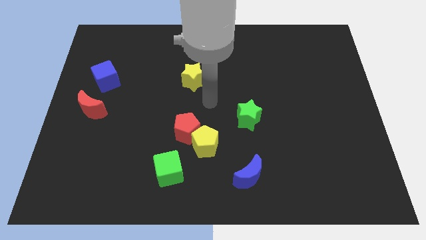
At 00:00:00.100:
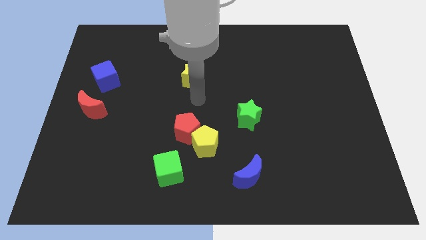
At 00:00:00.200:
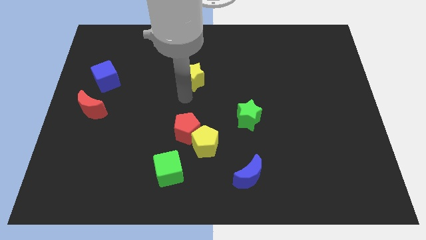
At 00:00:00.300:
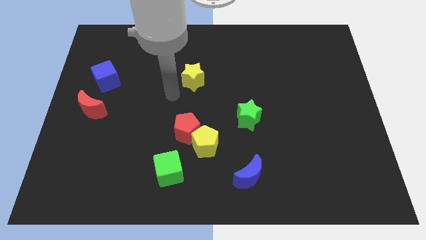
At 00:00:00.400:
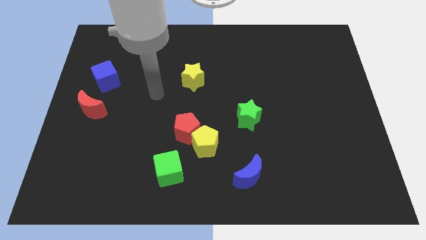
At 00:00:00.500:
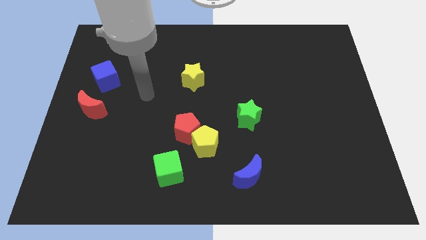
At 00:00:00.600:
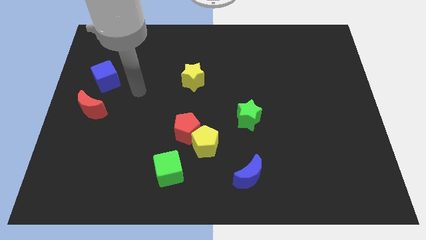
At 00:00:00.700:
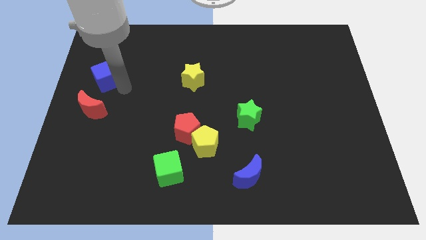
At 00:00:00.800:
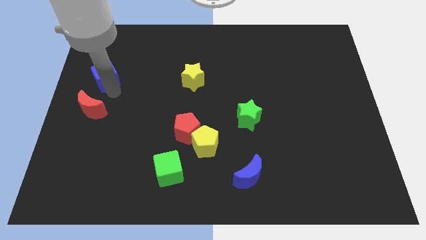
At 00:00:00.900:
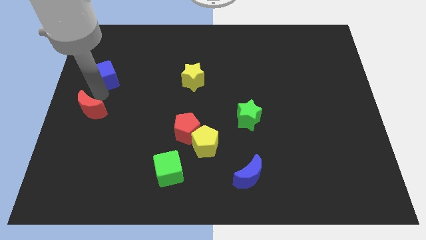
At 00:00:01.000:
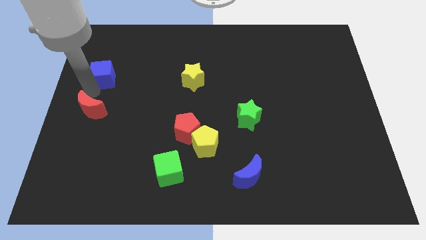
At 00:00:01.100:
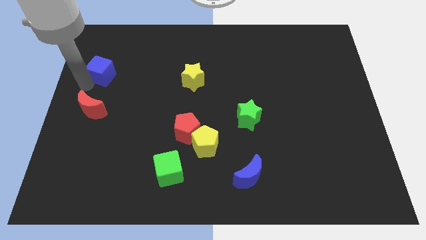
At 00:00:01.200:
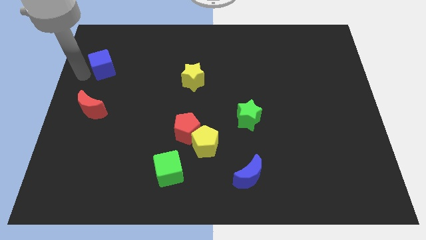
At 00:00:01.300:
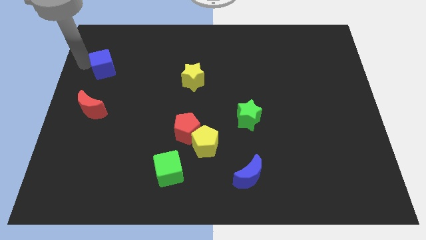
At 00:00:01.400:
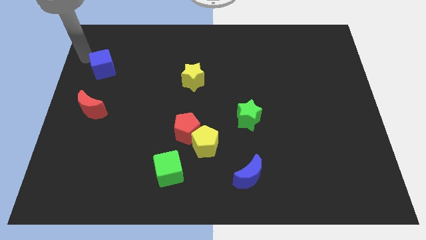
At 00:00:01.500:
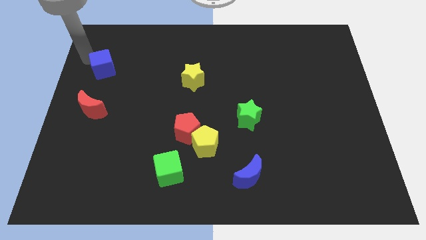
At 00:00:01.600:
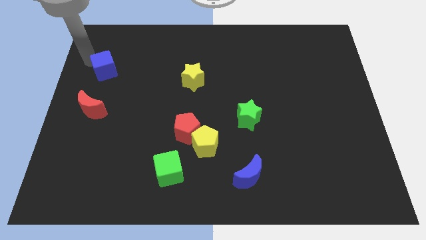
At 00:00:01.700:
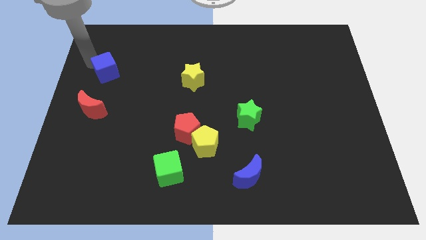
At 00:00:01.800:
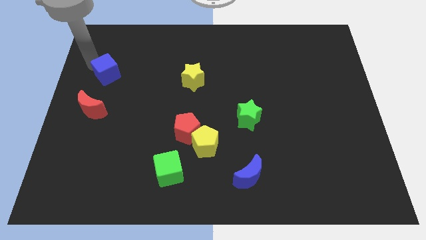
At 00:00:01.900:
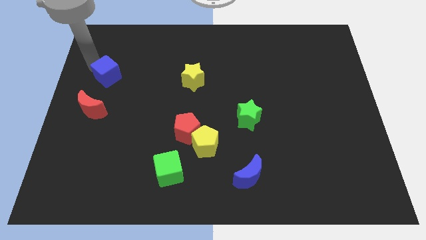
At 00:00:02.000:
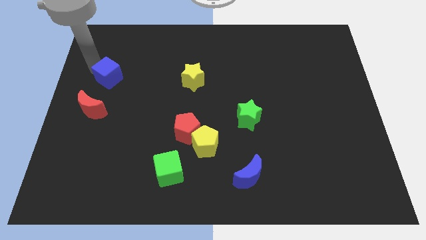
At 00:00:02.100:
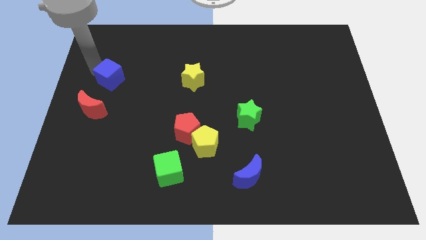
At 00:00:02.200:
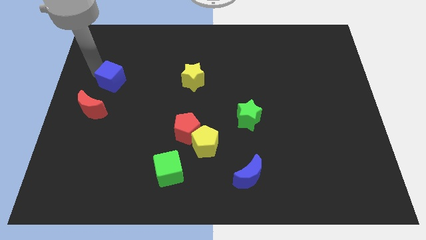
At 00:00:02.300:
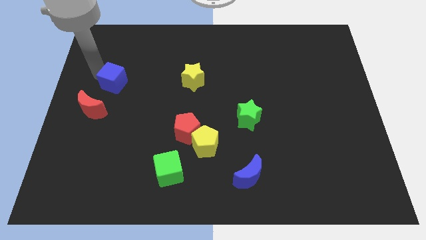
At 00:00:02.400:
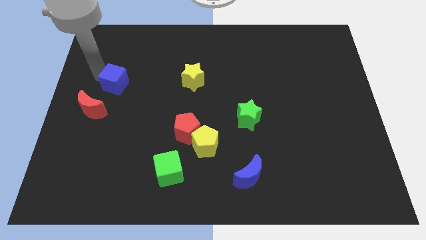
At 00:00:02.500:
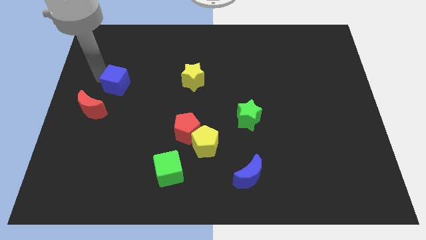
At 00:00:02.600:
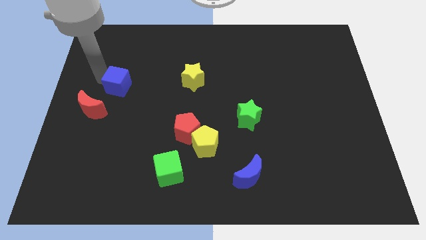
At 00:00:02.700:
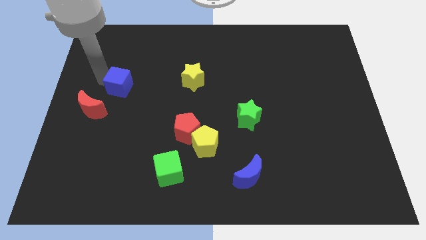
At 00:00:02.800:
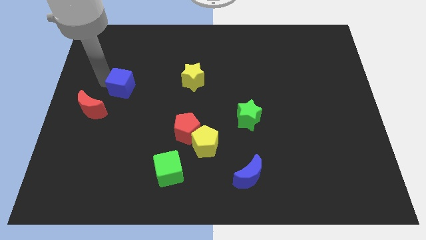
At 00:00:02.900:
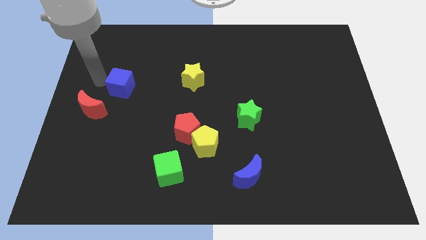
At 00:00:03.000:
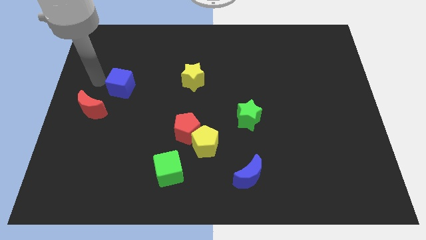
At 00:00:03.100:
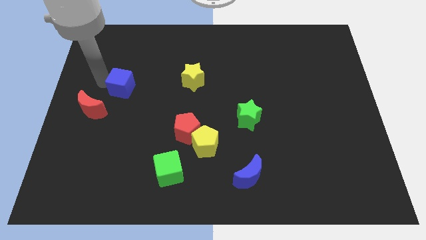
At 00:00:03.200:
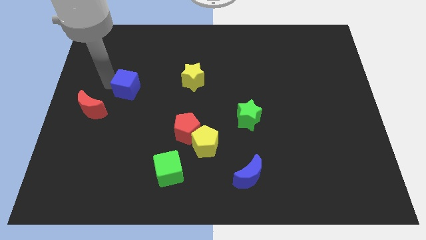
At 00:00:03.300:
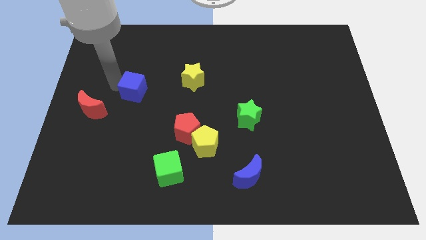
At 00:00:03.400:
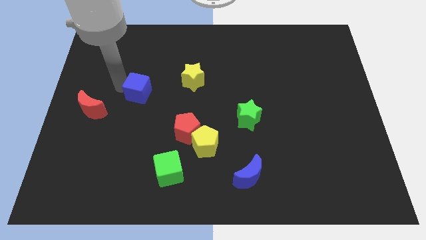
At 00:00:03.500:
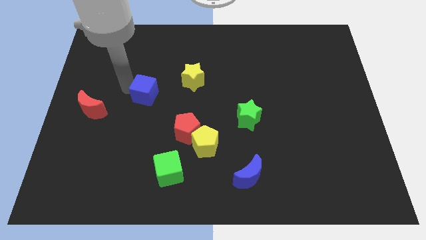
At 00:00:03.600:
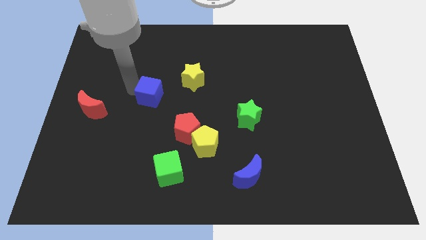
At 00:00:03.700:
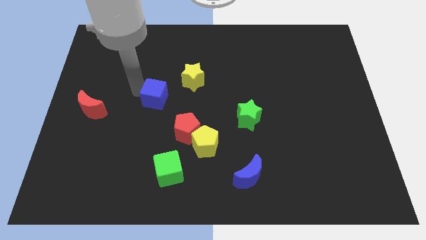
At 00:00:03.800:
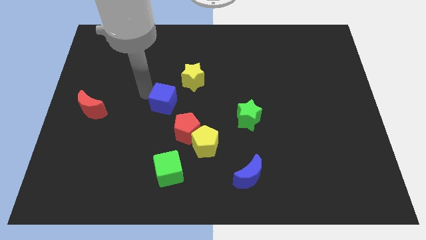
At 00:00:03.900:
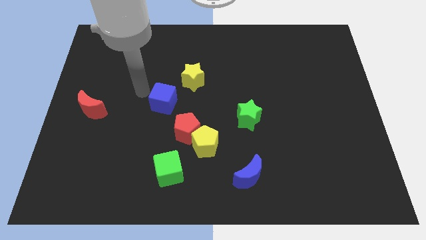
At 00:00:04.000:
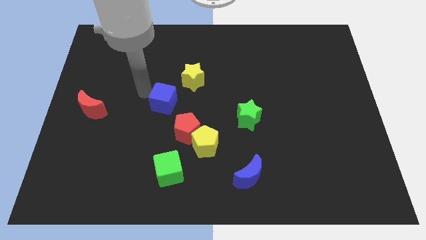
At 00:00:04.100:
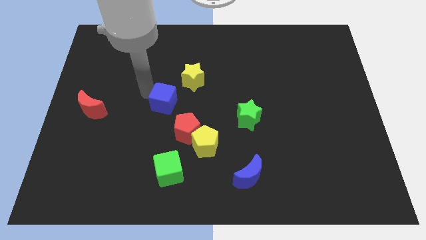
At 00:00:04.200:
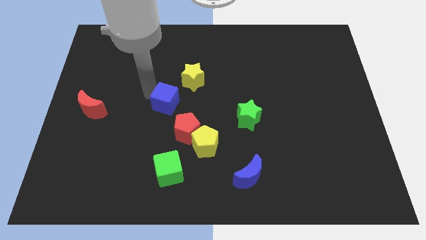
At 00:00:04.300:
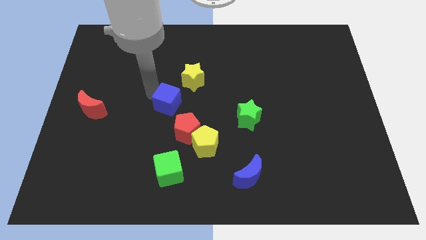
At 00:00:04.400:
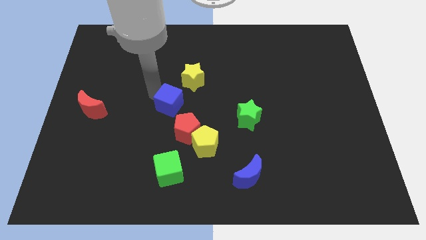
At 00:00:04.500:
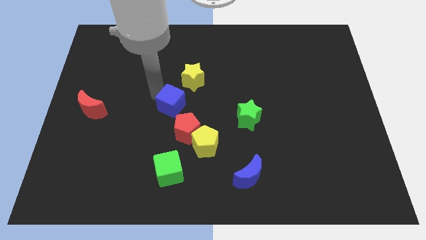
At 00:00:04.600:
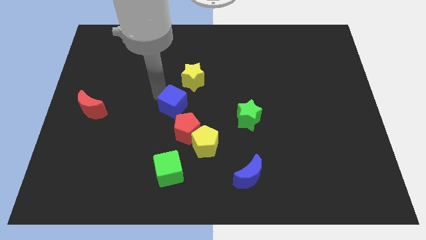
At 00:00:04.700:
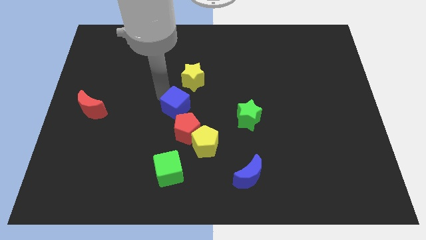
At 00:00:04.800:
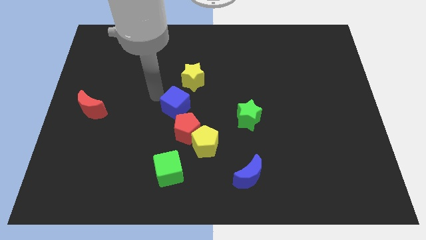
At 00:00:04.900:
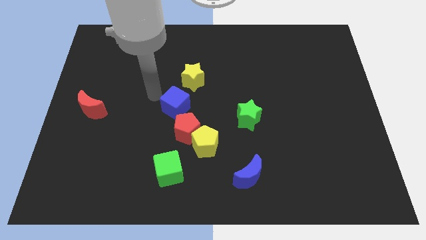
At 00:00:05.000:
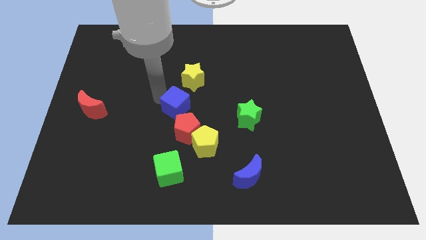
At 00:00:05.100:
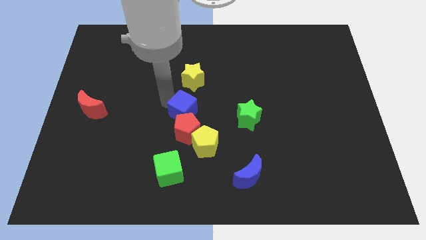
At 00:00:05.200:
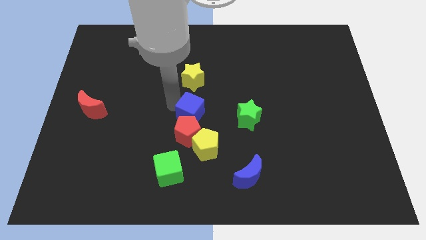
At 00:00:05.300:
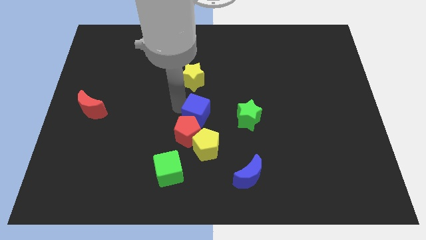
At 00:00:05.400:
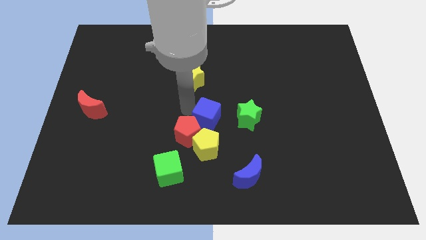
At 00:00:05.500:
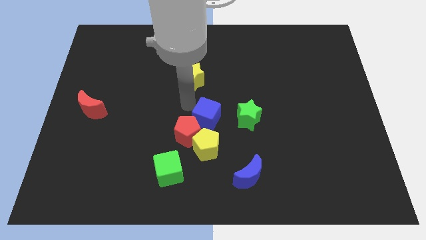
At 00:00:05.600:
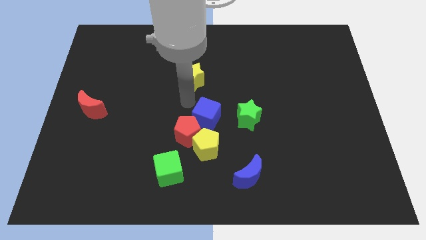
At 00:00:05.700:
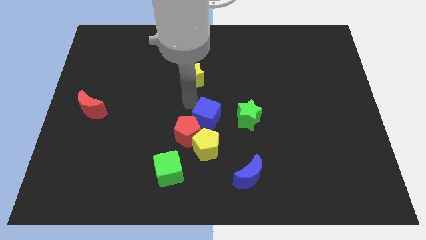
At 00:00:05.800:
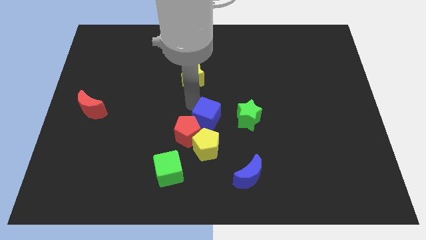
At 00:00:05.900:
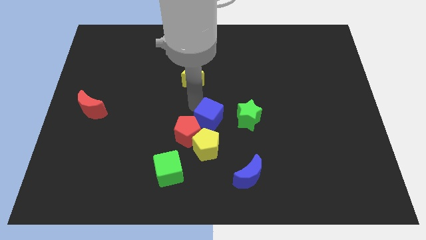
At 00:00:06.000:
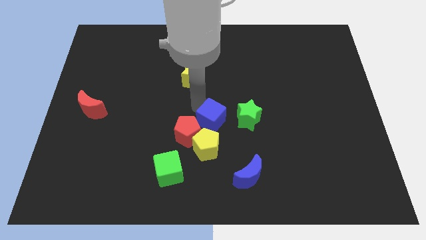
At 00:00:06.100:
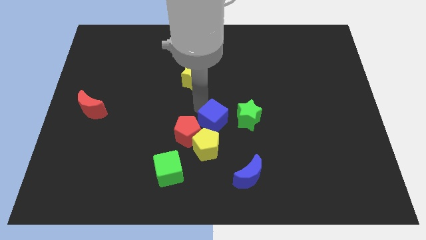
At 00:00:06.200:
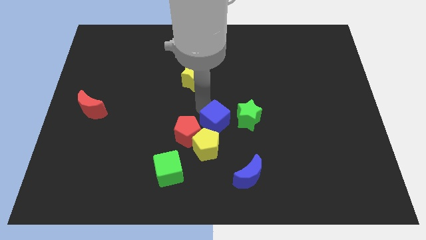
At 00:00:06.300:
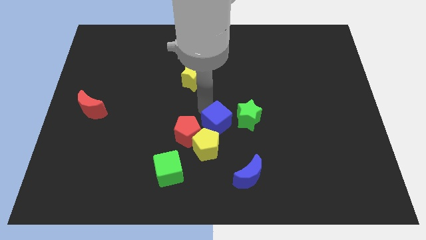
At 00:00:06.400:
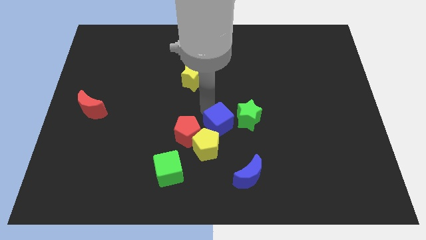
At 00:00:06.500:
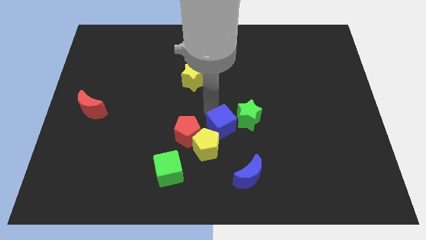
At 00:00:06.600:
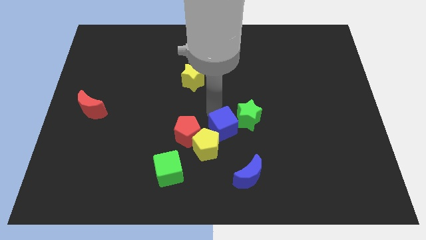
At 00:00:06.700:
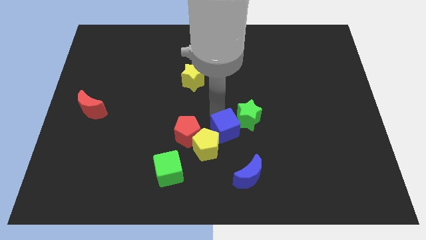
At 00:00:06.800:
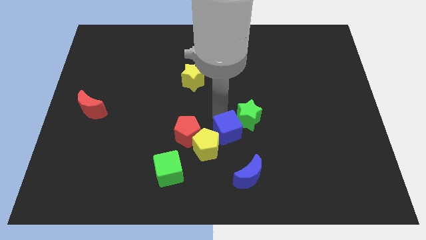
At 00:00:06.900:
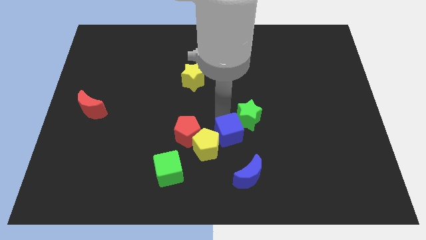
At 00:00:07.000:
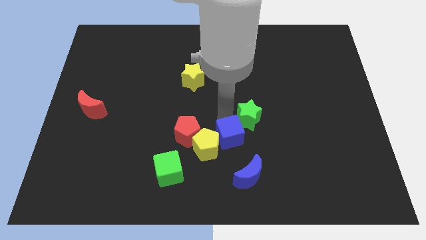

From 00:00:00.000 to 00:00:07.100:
put the blue cube to the top left side of the blue moon
